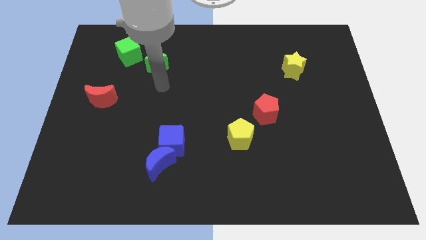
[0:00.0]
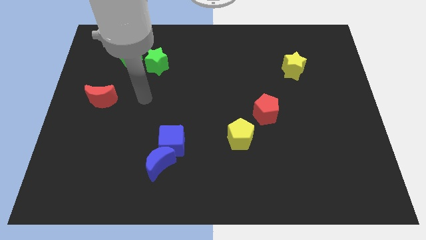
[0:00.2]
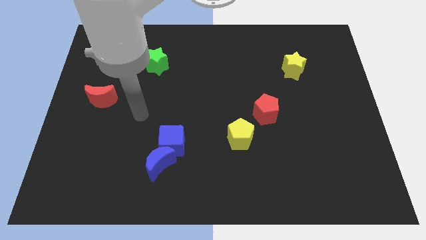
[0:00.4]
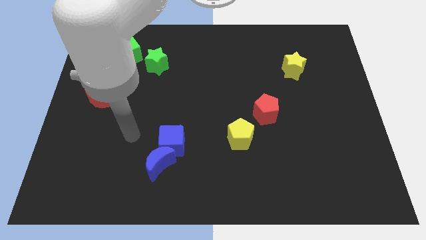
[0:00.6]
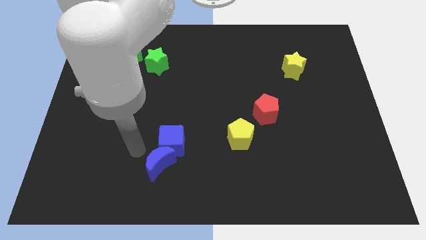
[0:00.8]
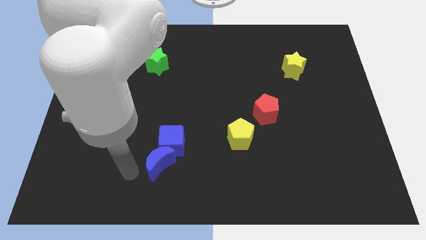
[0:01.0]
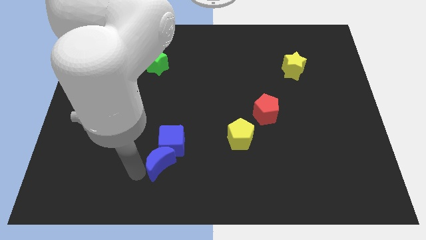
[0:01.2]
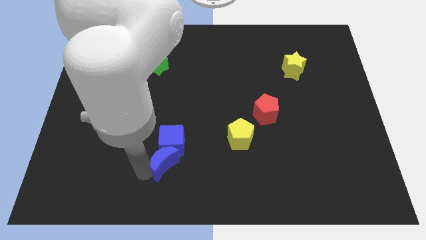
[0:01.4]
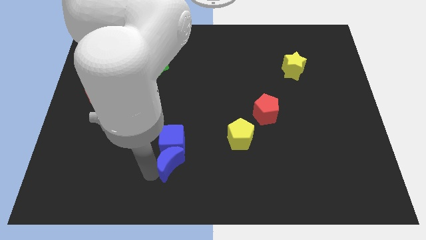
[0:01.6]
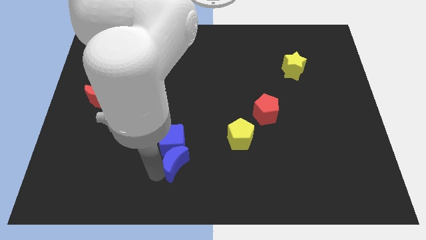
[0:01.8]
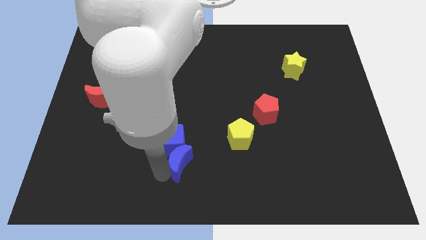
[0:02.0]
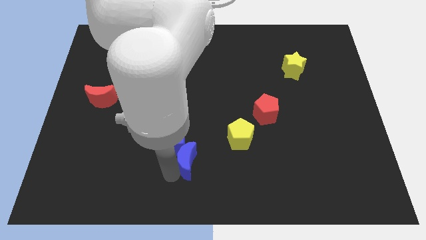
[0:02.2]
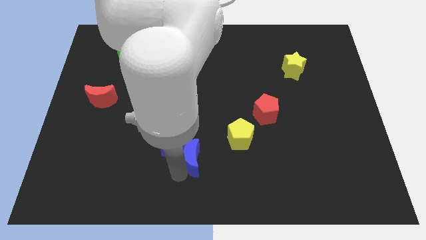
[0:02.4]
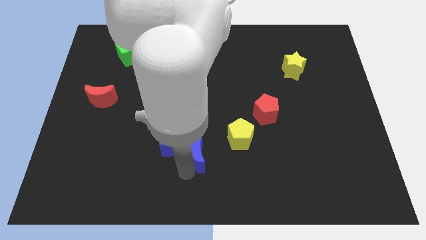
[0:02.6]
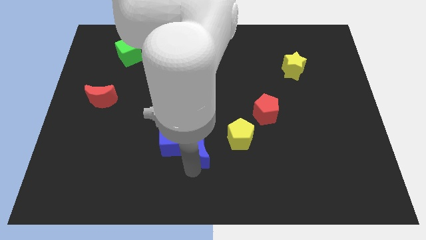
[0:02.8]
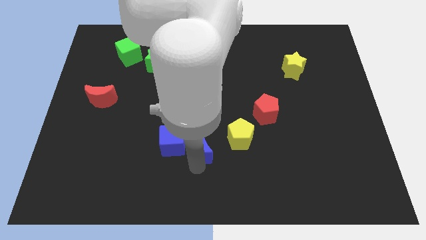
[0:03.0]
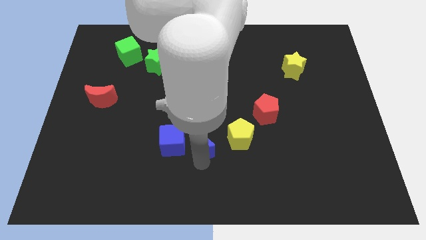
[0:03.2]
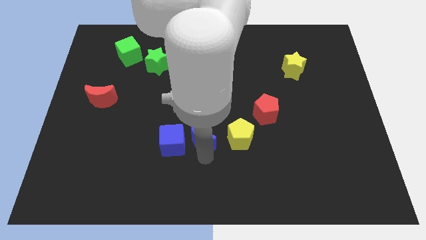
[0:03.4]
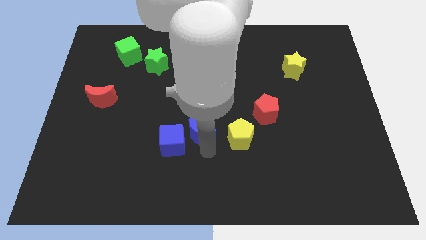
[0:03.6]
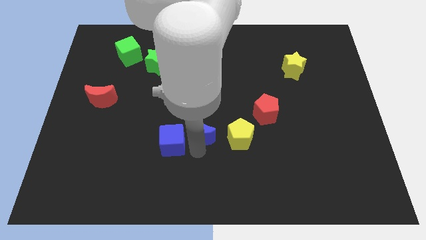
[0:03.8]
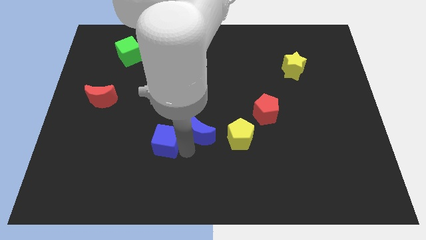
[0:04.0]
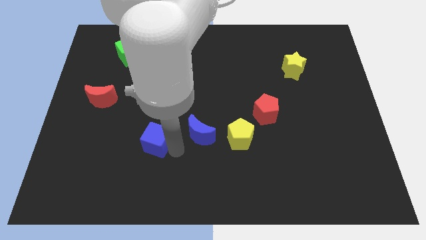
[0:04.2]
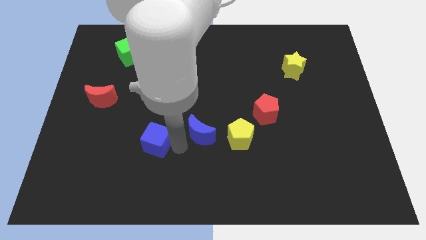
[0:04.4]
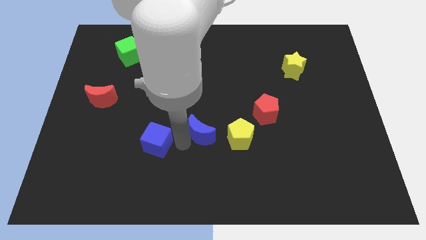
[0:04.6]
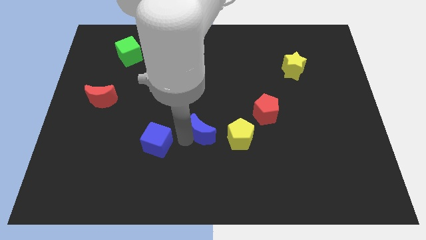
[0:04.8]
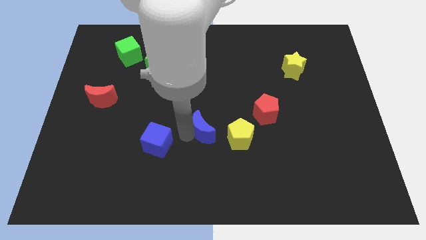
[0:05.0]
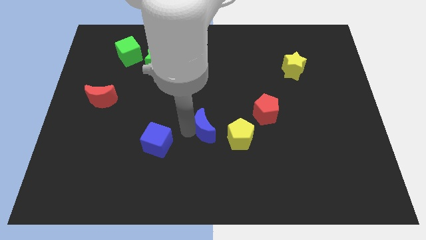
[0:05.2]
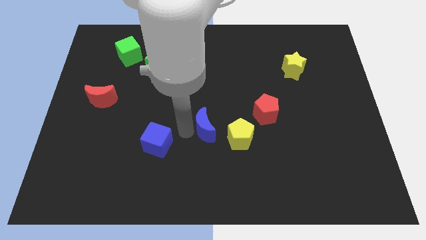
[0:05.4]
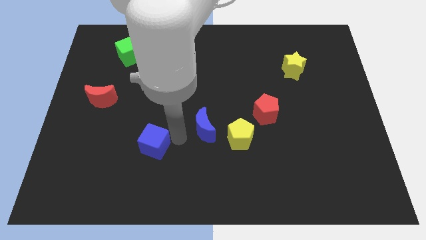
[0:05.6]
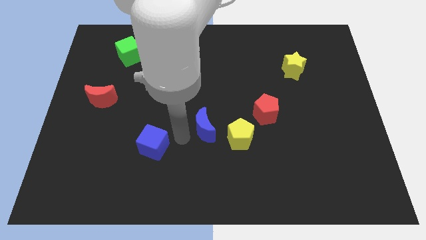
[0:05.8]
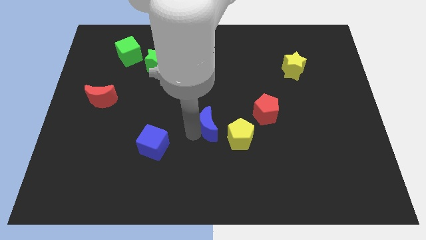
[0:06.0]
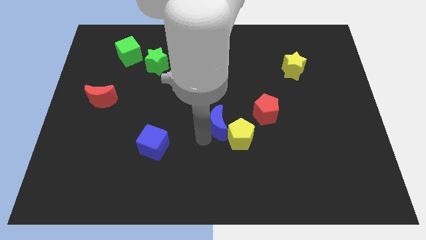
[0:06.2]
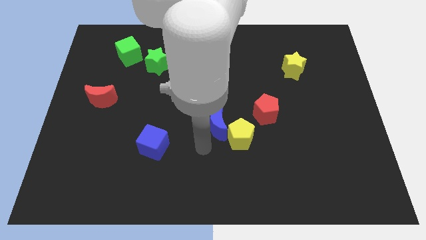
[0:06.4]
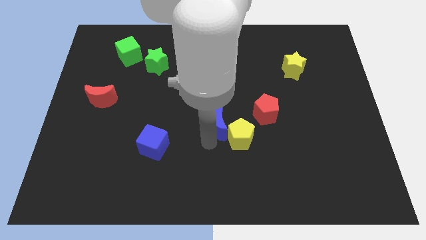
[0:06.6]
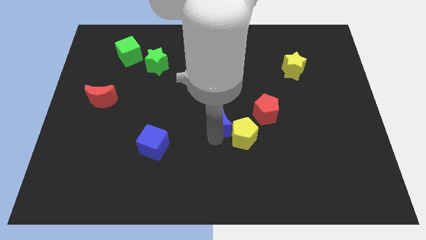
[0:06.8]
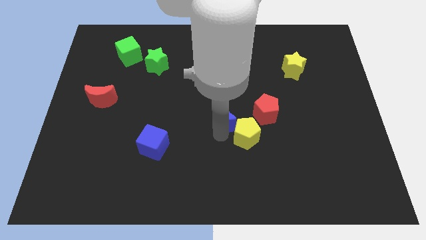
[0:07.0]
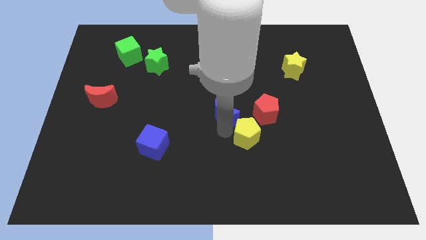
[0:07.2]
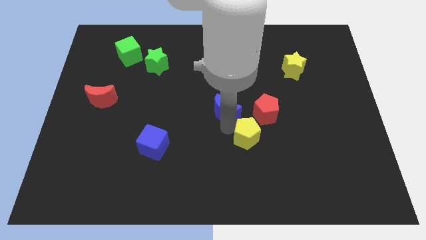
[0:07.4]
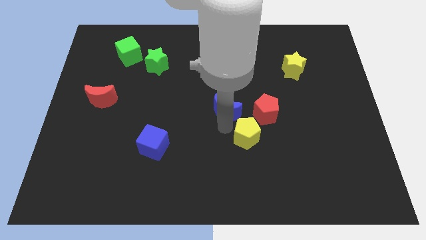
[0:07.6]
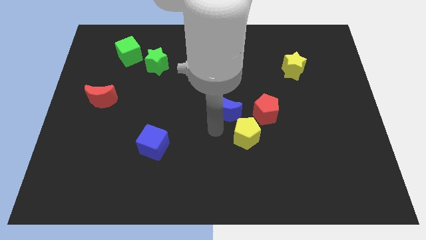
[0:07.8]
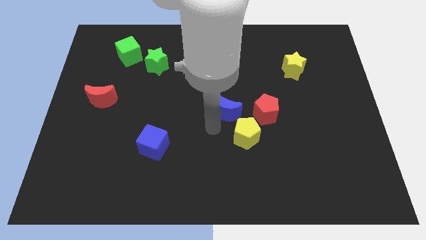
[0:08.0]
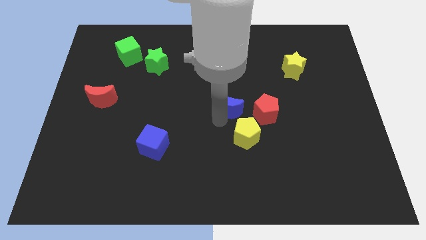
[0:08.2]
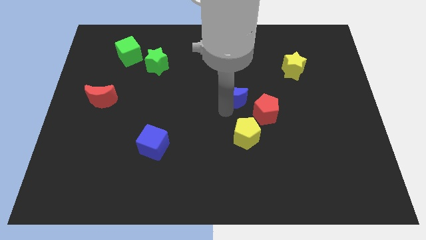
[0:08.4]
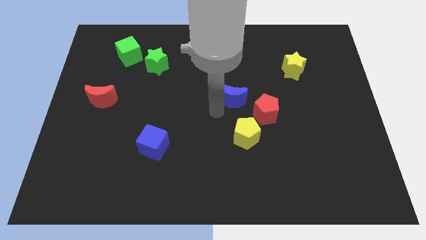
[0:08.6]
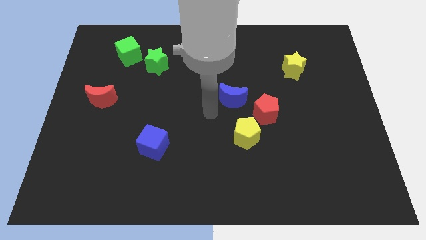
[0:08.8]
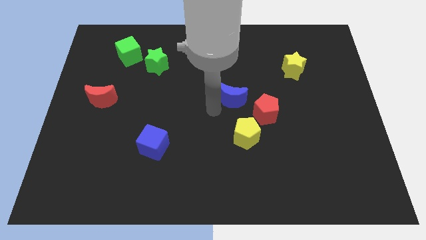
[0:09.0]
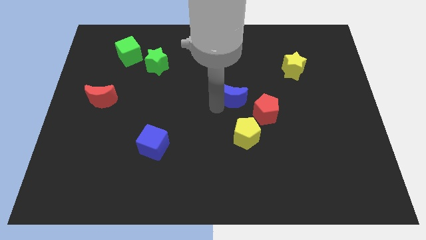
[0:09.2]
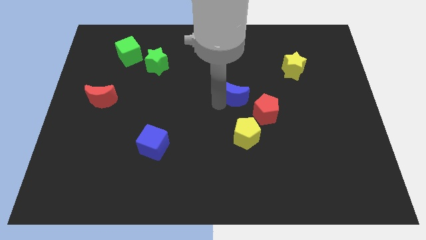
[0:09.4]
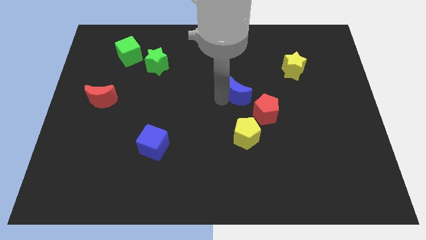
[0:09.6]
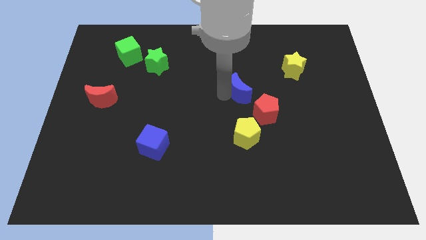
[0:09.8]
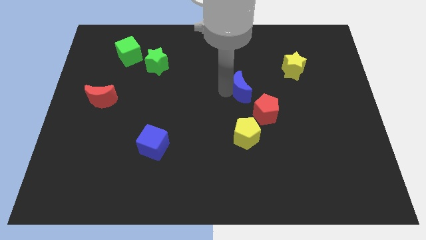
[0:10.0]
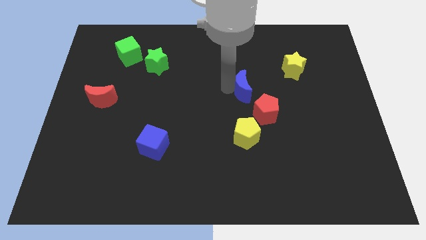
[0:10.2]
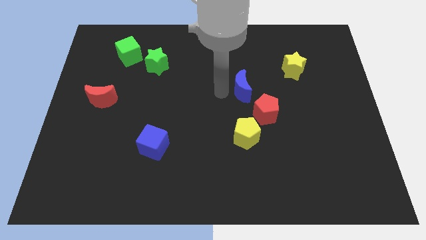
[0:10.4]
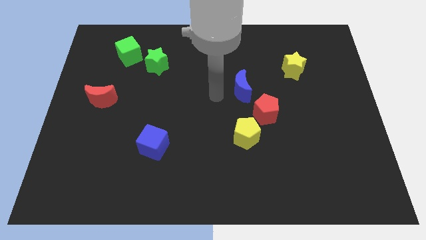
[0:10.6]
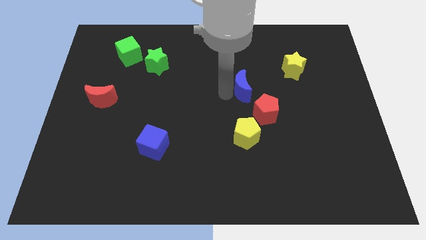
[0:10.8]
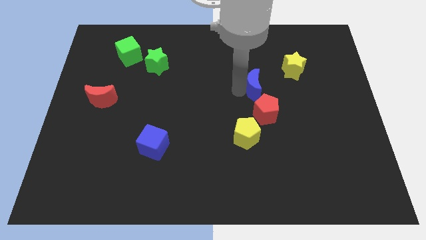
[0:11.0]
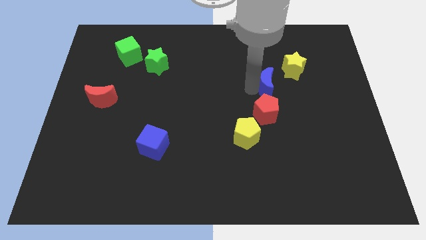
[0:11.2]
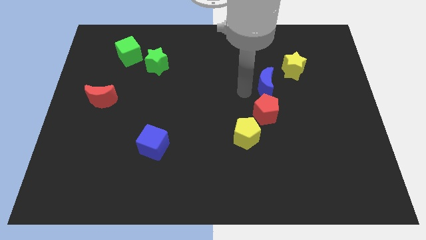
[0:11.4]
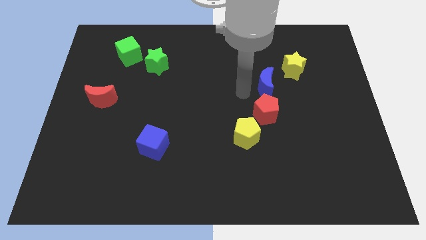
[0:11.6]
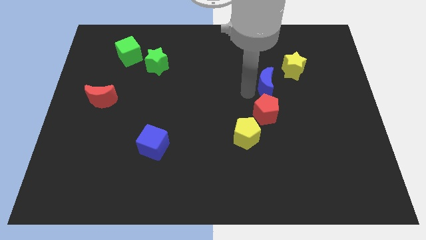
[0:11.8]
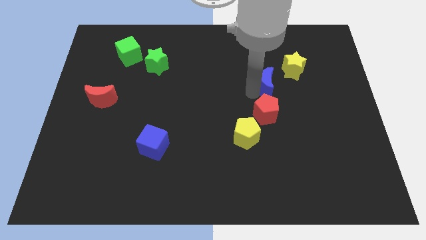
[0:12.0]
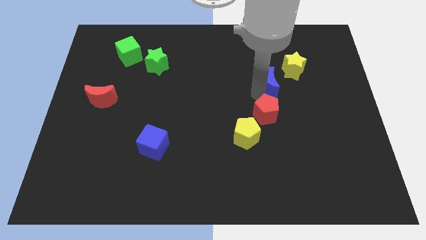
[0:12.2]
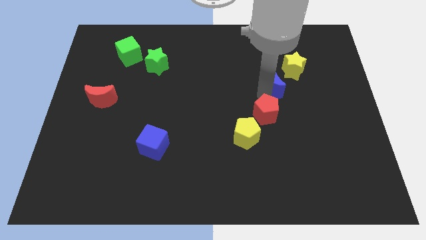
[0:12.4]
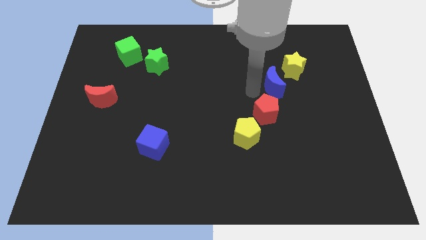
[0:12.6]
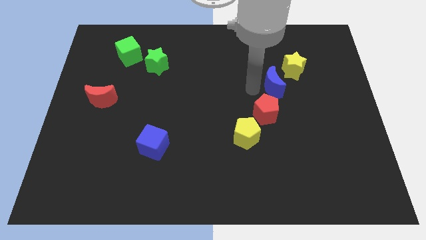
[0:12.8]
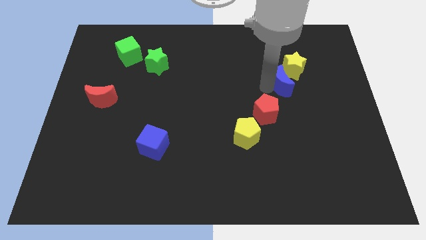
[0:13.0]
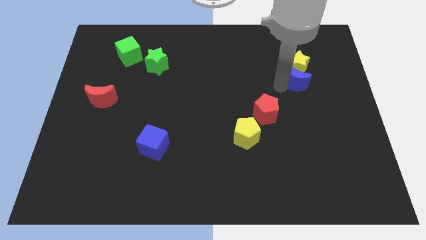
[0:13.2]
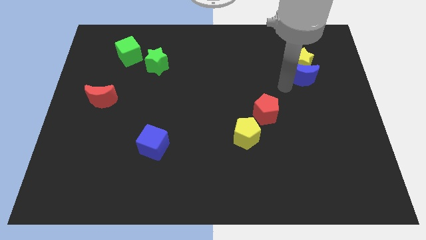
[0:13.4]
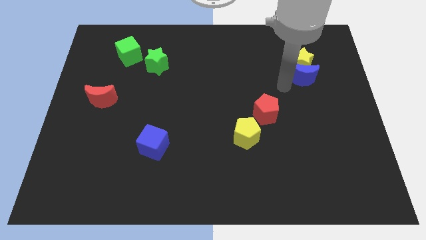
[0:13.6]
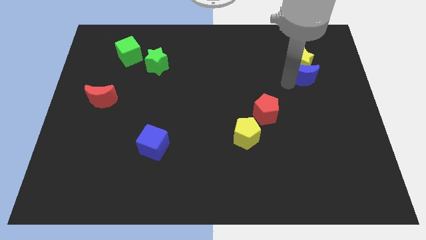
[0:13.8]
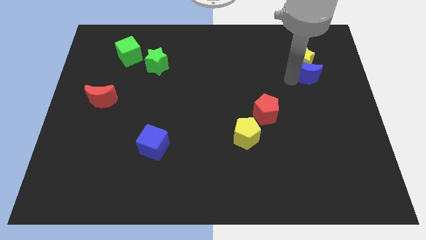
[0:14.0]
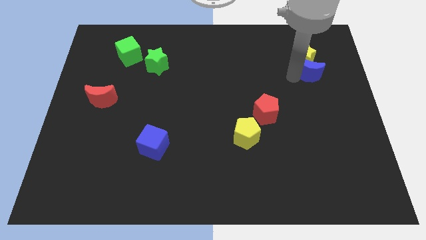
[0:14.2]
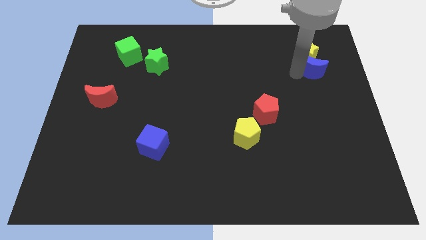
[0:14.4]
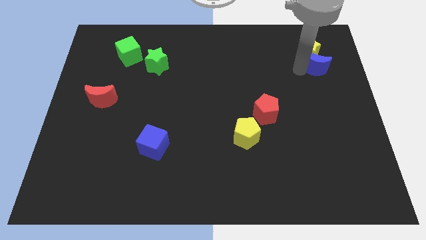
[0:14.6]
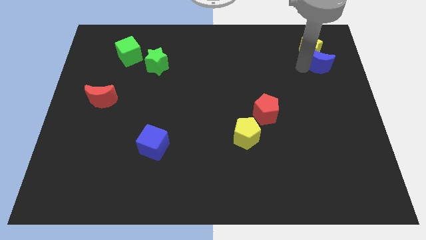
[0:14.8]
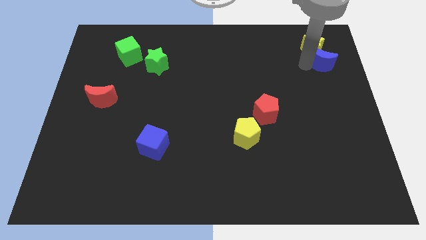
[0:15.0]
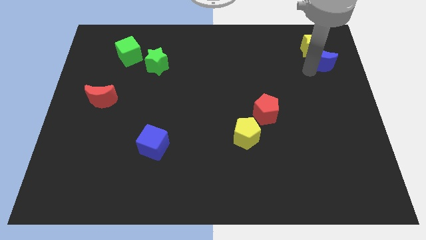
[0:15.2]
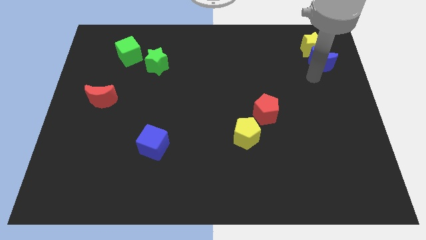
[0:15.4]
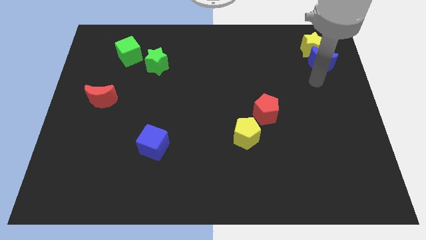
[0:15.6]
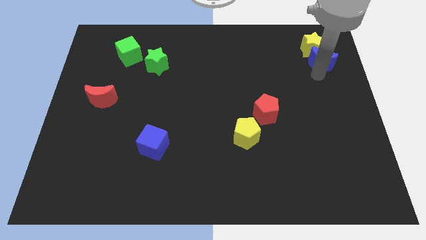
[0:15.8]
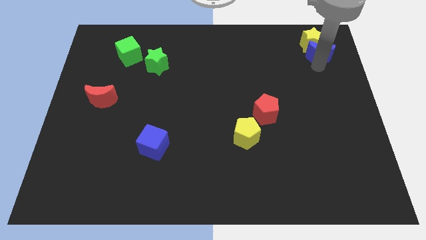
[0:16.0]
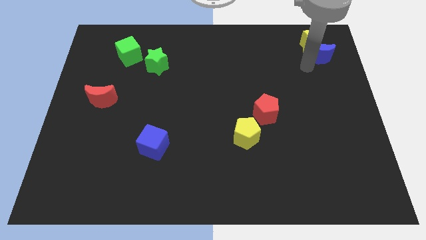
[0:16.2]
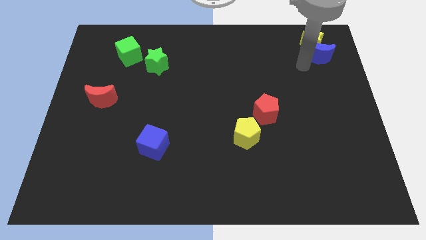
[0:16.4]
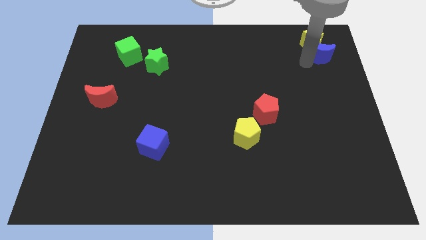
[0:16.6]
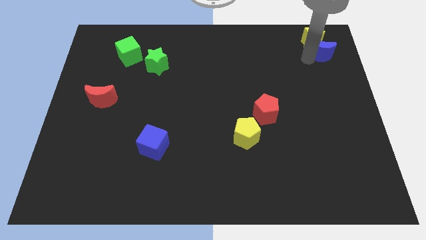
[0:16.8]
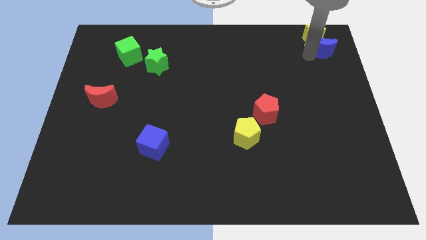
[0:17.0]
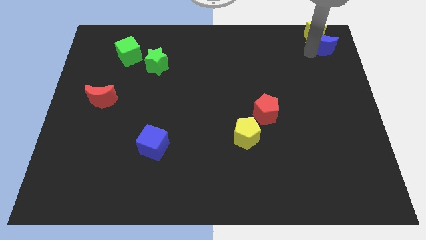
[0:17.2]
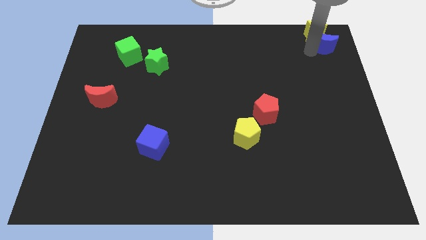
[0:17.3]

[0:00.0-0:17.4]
put the blue moon to the top right of the board
